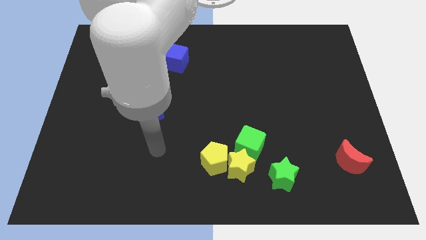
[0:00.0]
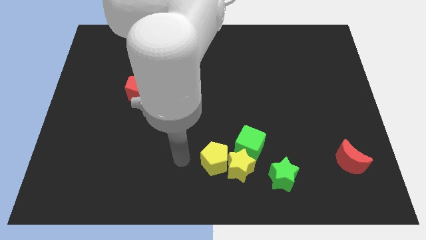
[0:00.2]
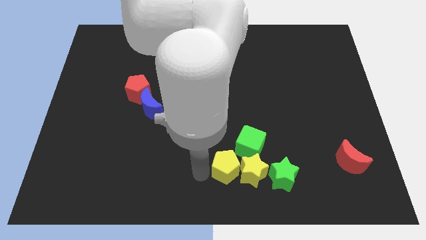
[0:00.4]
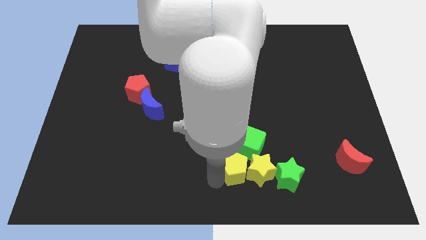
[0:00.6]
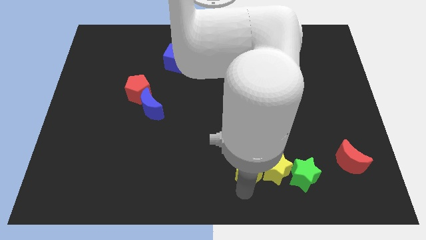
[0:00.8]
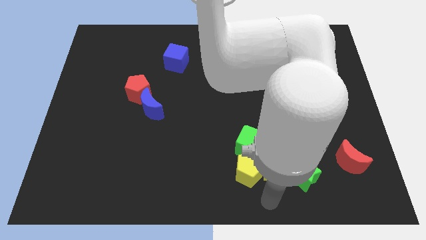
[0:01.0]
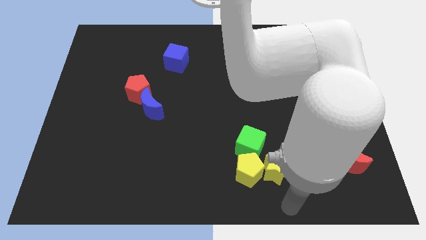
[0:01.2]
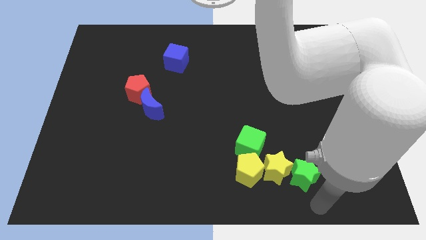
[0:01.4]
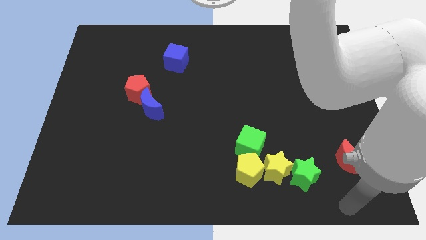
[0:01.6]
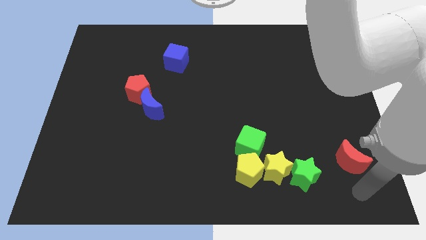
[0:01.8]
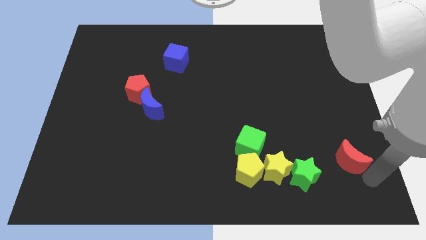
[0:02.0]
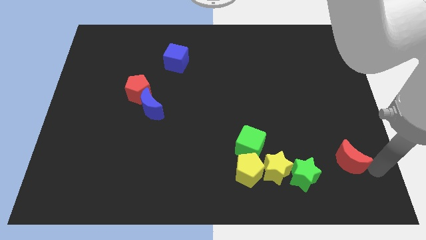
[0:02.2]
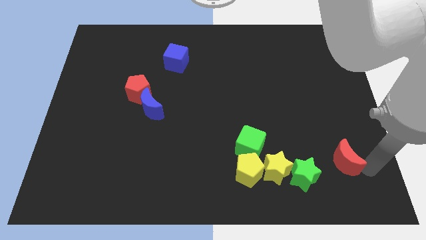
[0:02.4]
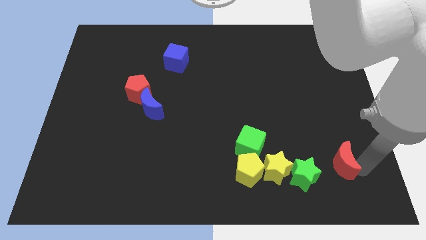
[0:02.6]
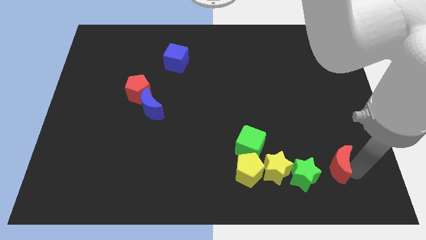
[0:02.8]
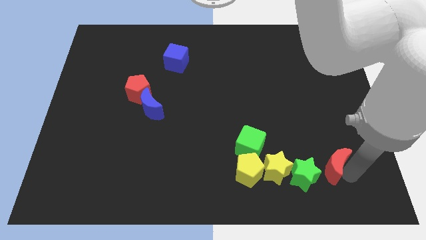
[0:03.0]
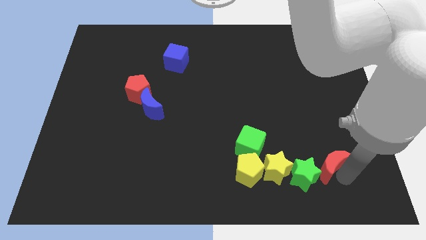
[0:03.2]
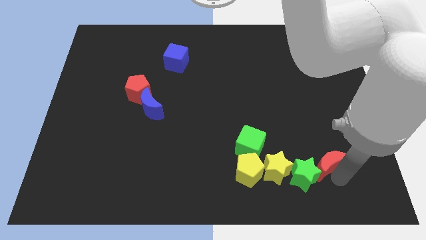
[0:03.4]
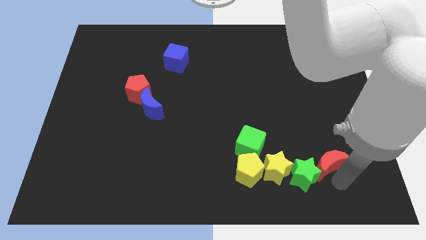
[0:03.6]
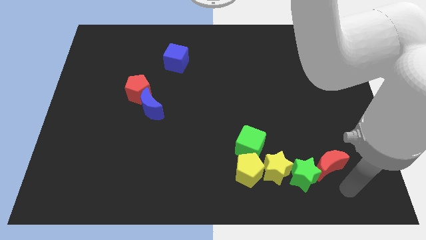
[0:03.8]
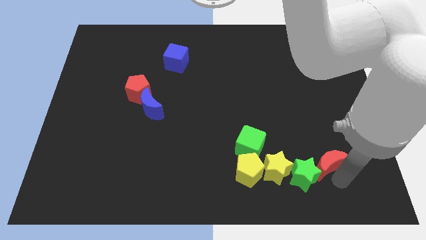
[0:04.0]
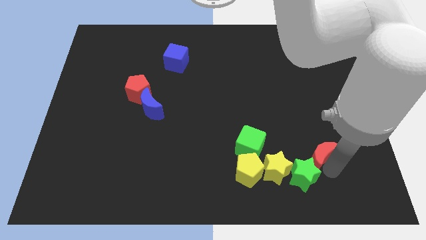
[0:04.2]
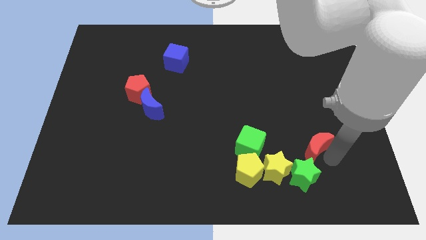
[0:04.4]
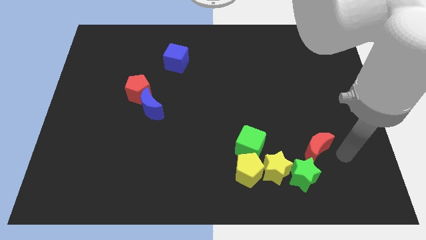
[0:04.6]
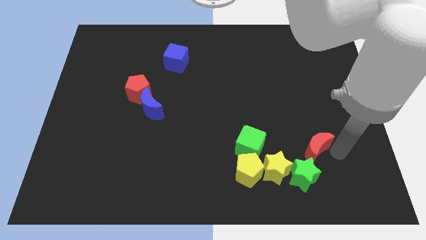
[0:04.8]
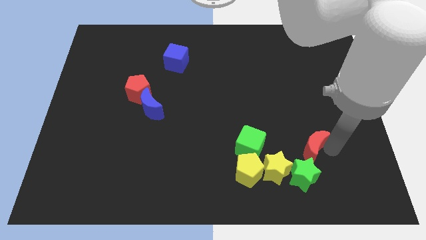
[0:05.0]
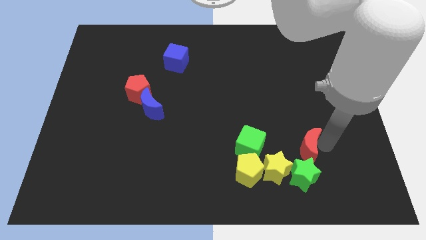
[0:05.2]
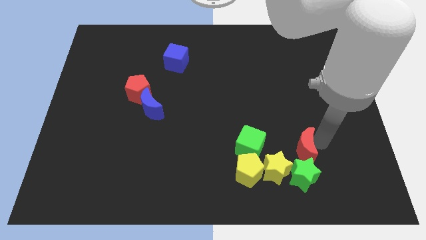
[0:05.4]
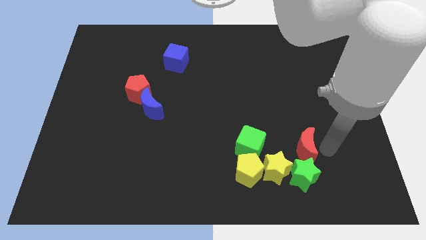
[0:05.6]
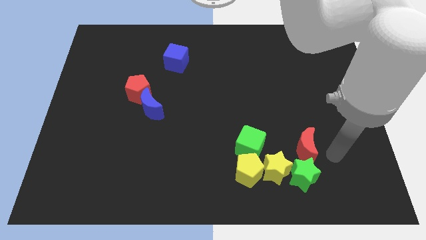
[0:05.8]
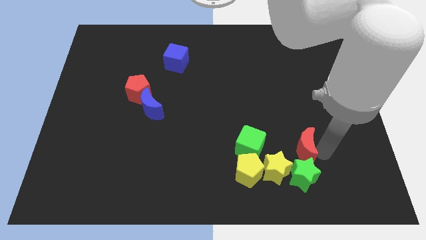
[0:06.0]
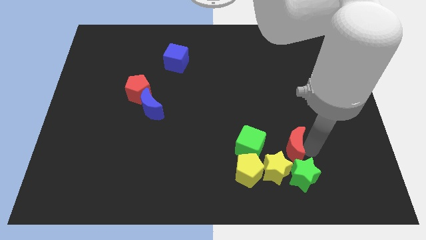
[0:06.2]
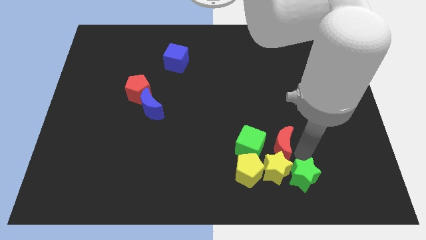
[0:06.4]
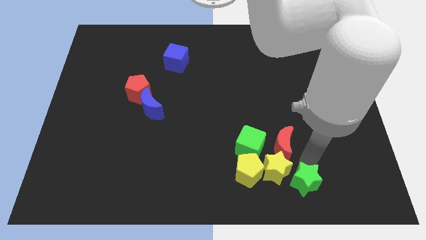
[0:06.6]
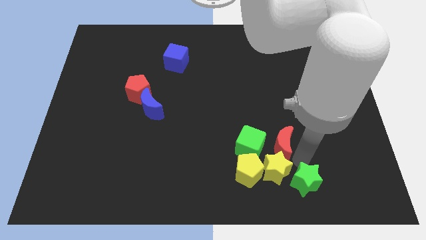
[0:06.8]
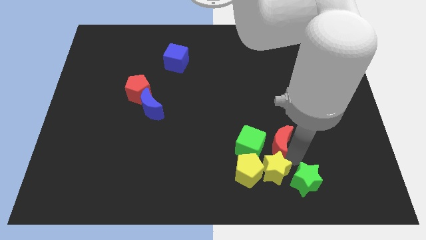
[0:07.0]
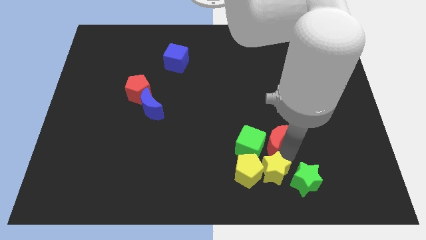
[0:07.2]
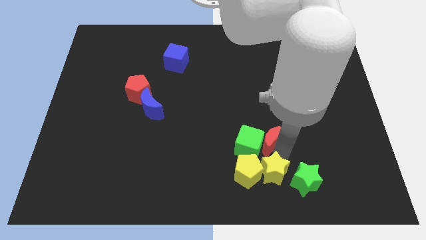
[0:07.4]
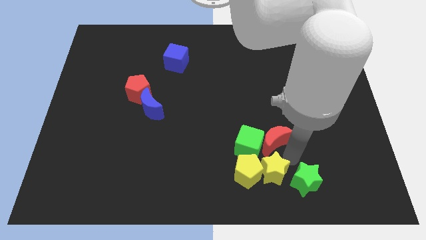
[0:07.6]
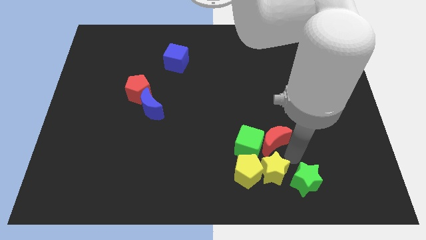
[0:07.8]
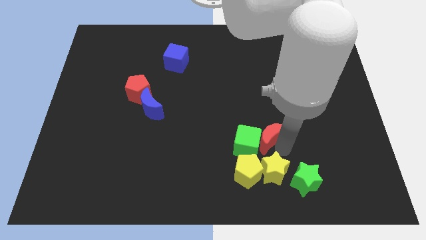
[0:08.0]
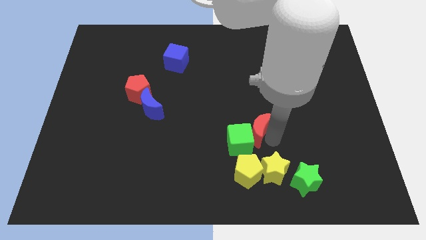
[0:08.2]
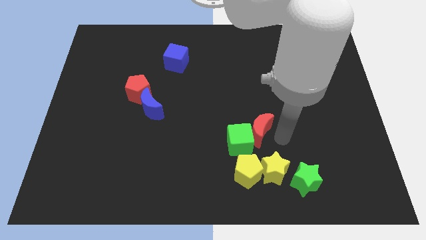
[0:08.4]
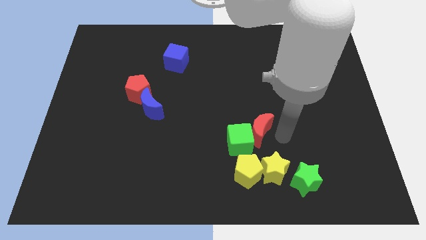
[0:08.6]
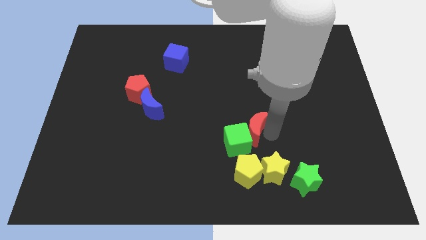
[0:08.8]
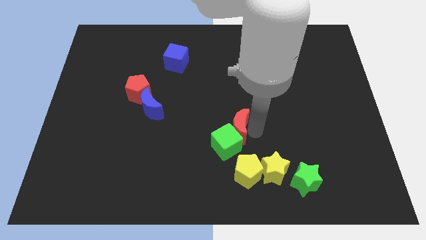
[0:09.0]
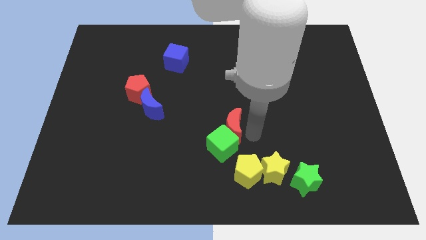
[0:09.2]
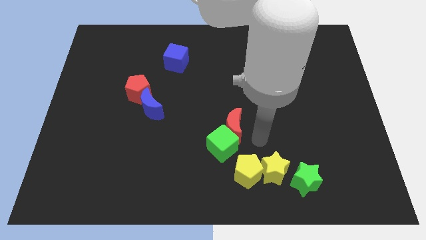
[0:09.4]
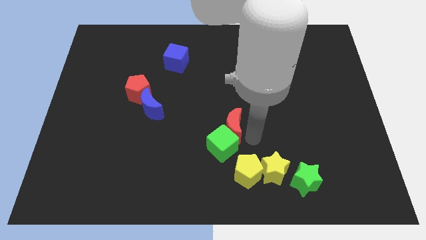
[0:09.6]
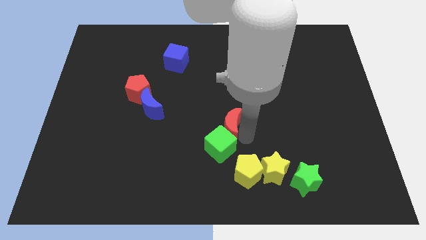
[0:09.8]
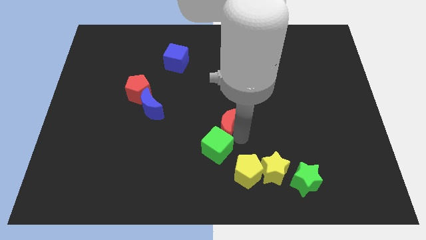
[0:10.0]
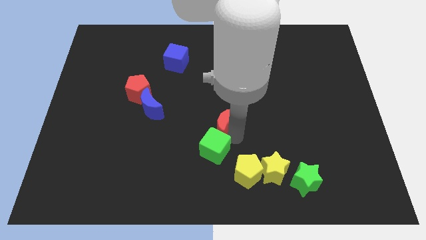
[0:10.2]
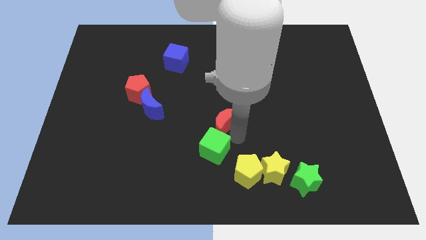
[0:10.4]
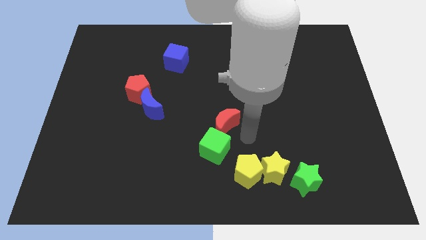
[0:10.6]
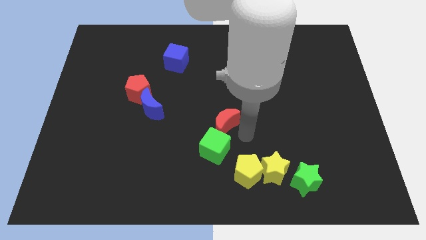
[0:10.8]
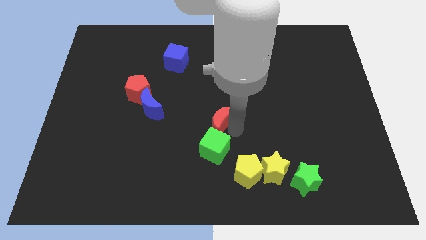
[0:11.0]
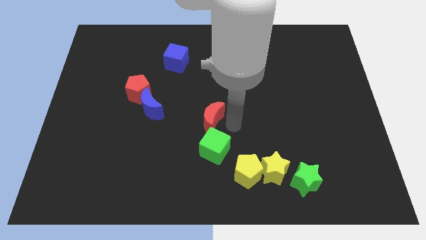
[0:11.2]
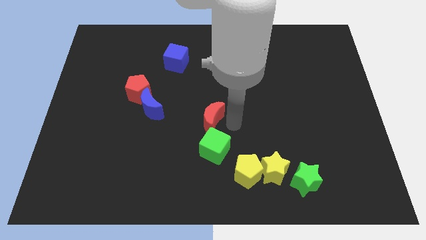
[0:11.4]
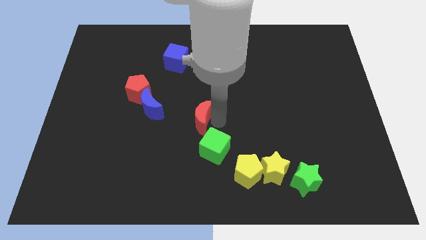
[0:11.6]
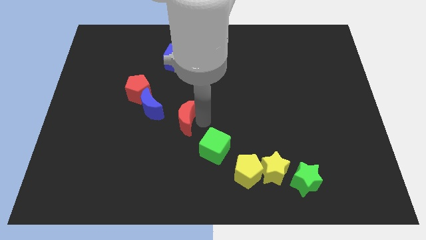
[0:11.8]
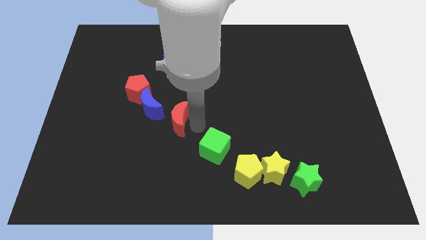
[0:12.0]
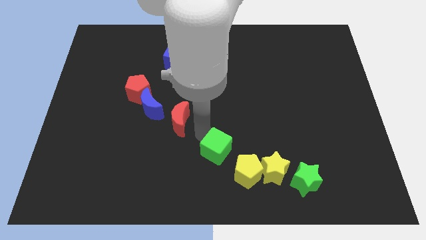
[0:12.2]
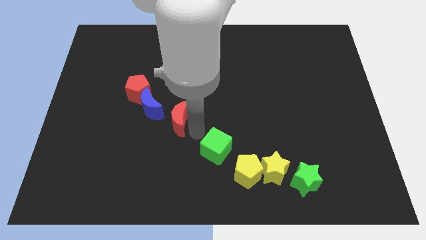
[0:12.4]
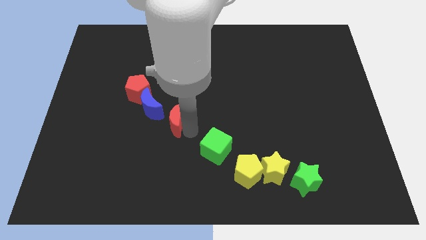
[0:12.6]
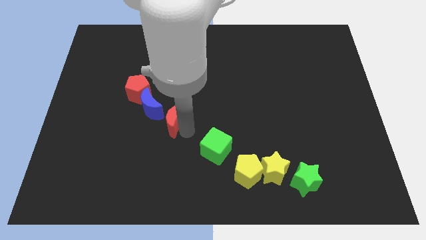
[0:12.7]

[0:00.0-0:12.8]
push the red moon to the bottom right side of the red pentagon

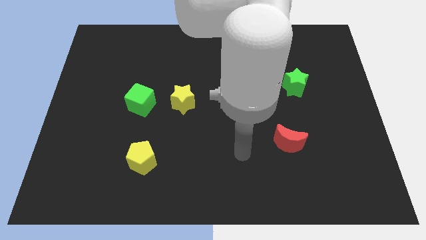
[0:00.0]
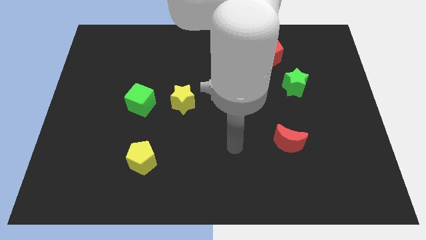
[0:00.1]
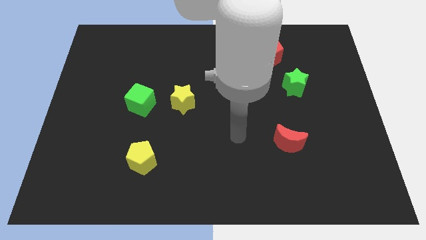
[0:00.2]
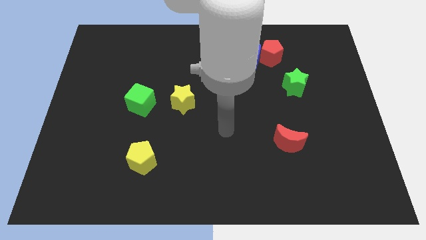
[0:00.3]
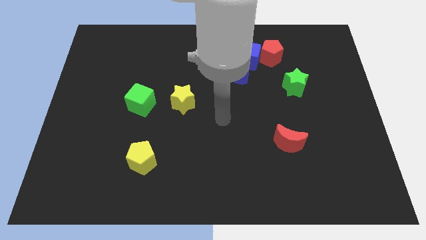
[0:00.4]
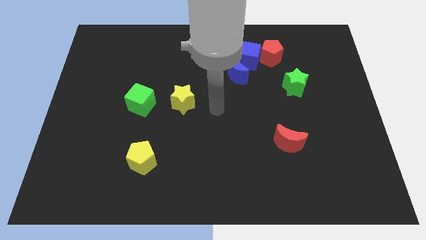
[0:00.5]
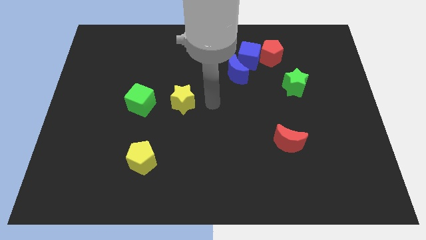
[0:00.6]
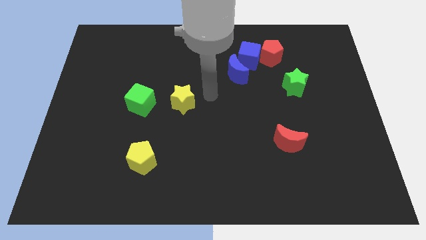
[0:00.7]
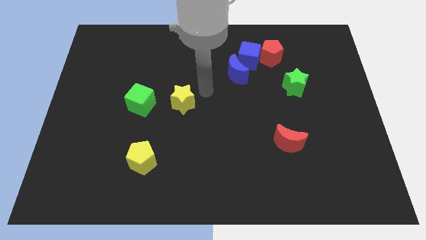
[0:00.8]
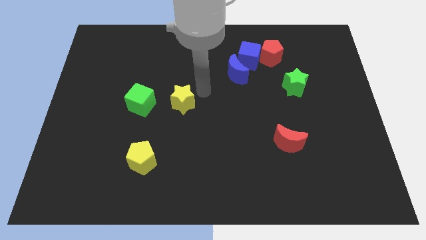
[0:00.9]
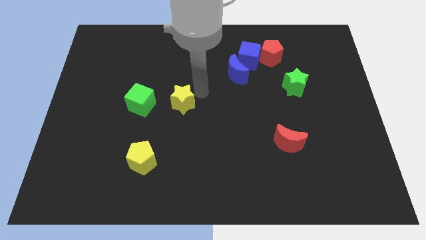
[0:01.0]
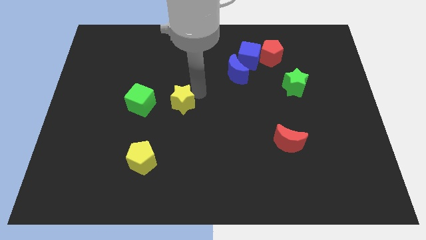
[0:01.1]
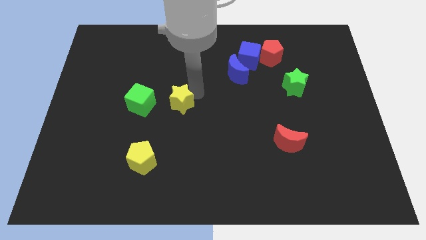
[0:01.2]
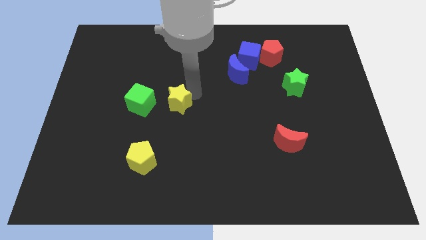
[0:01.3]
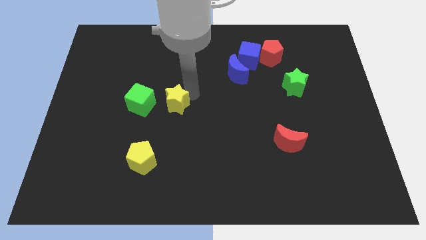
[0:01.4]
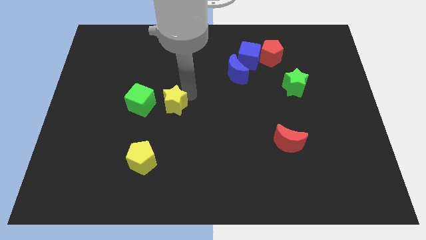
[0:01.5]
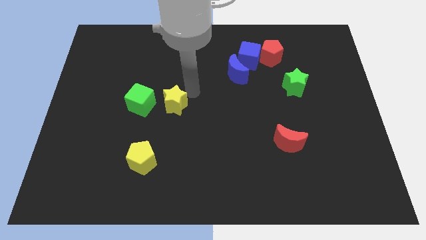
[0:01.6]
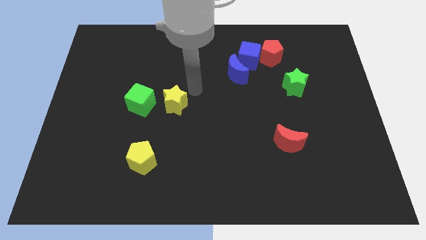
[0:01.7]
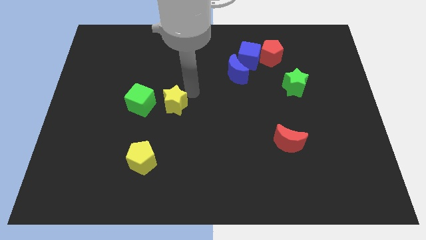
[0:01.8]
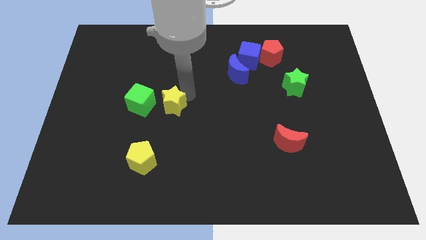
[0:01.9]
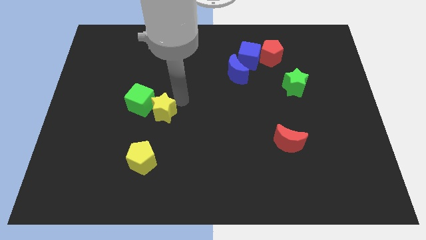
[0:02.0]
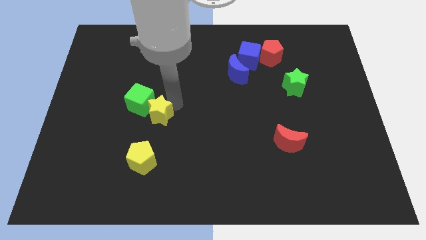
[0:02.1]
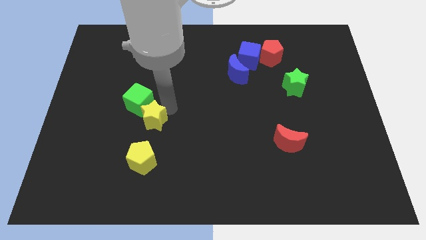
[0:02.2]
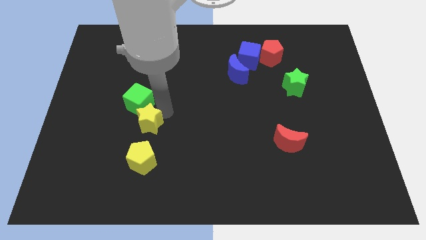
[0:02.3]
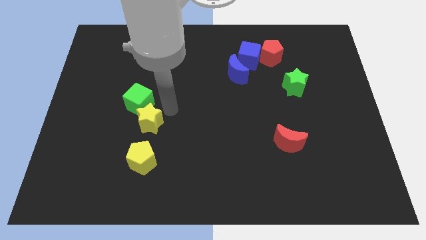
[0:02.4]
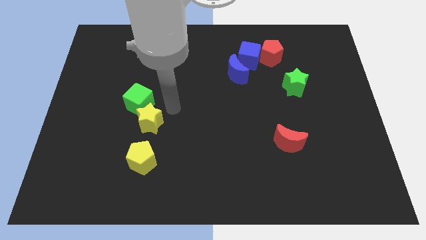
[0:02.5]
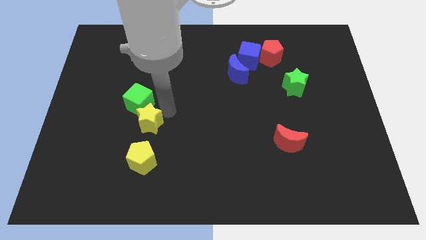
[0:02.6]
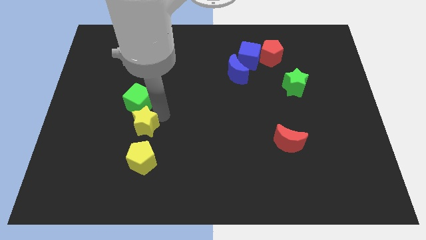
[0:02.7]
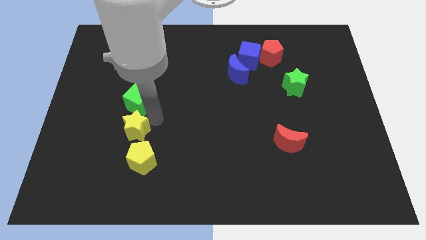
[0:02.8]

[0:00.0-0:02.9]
slide the yellow star diagonally up and to the left of the yellow pentagon
